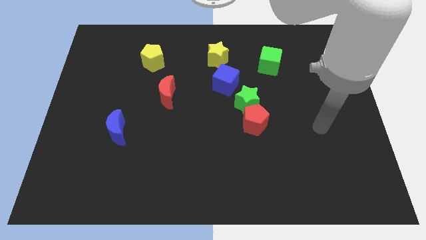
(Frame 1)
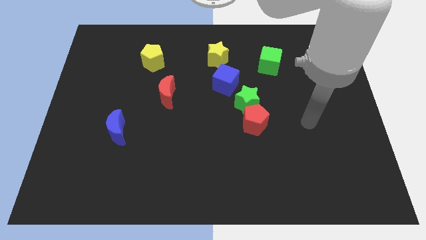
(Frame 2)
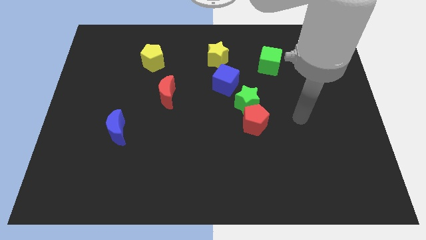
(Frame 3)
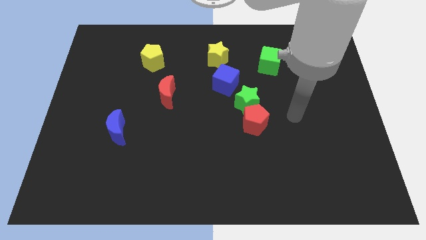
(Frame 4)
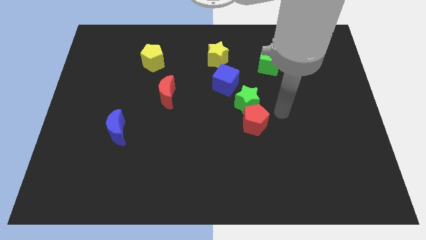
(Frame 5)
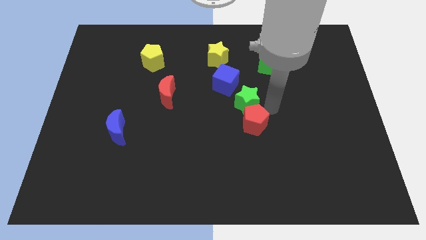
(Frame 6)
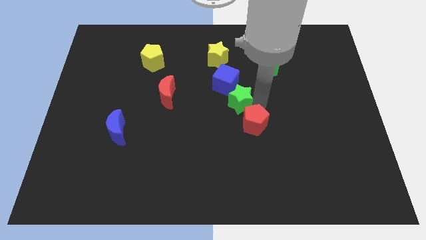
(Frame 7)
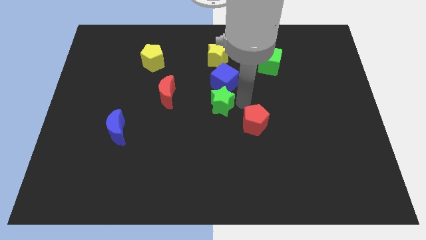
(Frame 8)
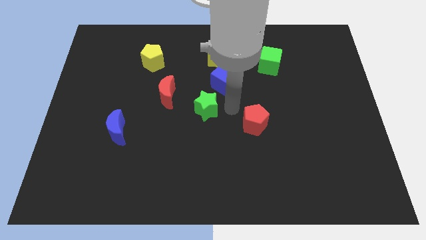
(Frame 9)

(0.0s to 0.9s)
pull the red pentagon apart from the green star

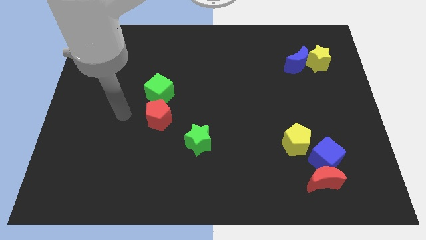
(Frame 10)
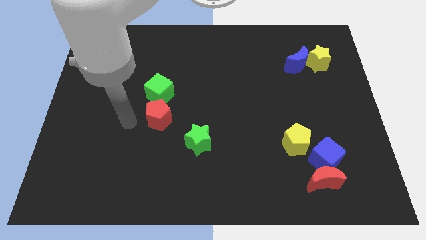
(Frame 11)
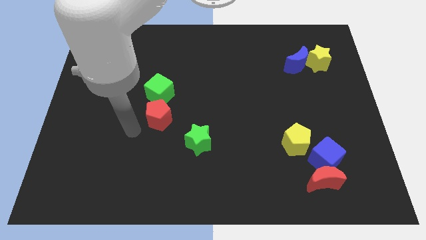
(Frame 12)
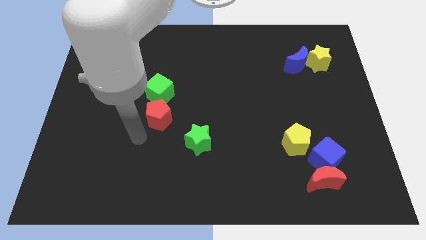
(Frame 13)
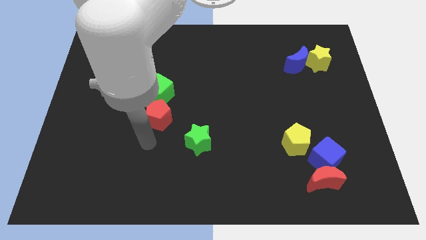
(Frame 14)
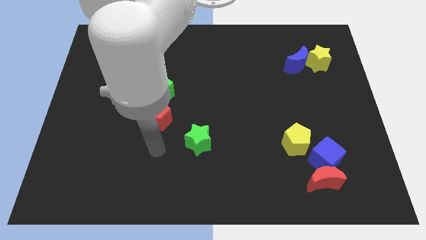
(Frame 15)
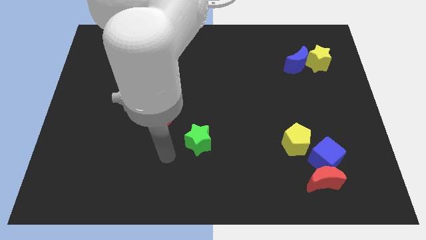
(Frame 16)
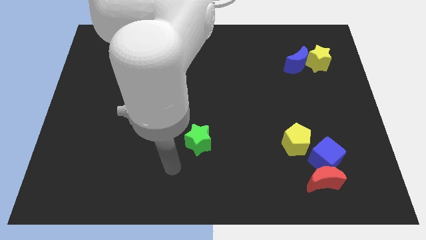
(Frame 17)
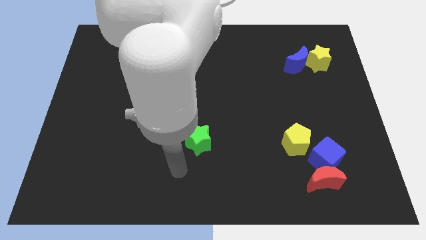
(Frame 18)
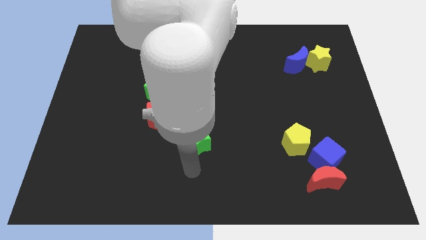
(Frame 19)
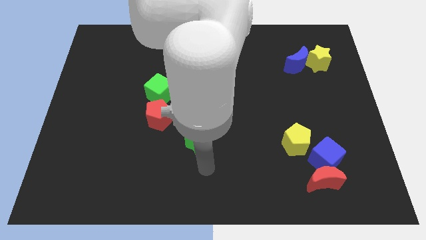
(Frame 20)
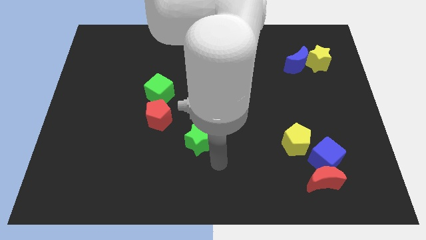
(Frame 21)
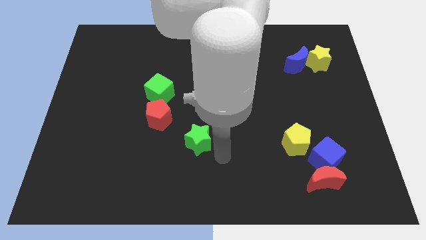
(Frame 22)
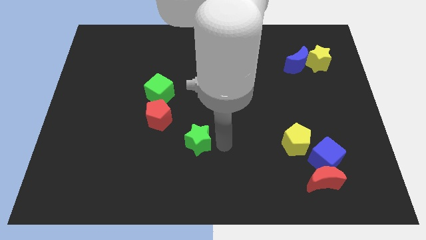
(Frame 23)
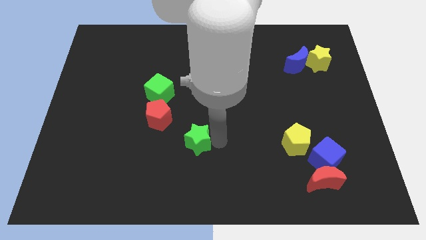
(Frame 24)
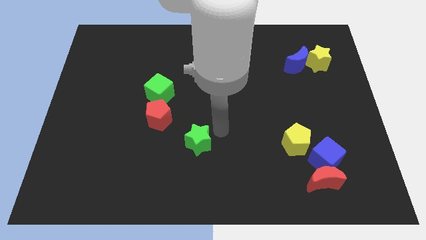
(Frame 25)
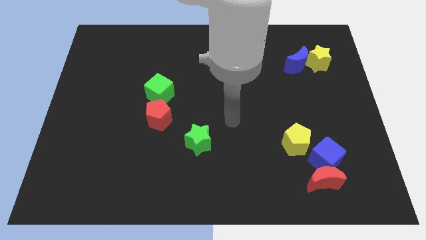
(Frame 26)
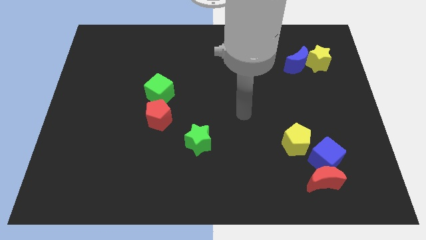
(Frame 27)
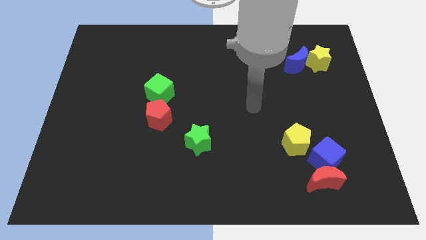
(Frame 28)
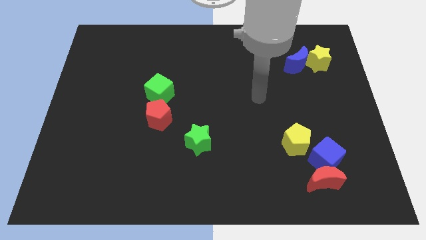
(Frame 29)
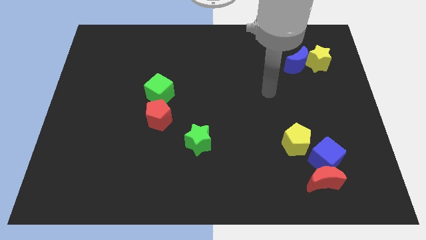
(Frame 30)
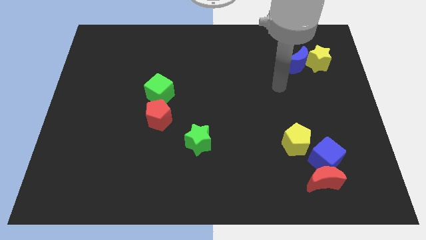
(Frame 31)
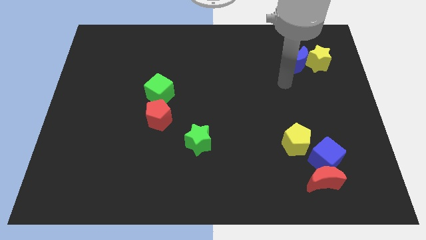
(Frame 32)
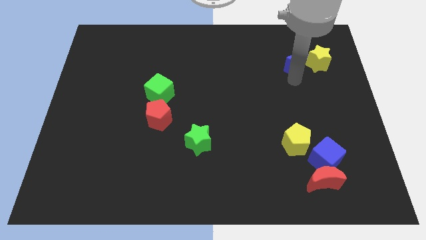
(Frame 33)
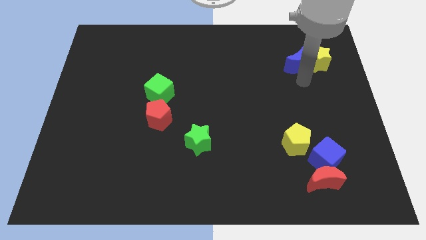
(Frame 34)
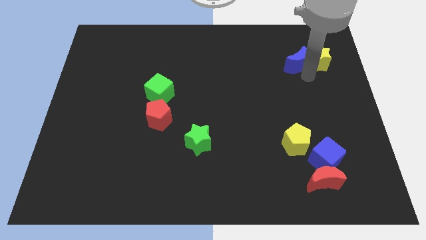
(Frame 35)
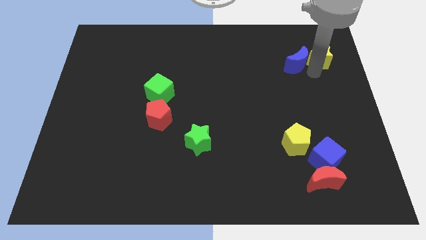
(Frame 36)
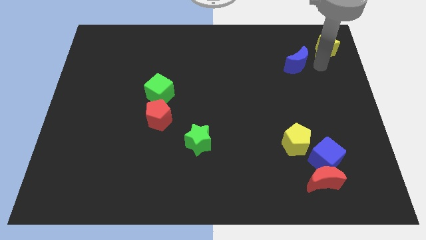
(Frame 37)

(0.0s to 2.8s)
separate the blue moon from the yellow star

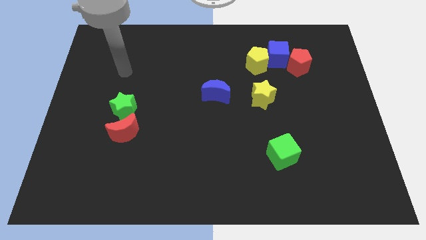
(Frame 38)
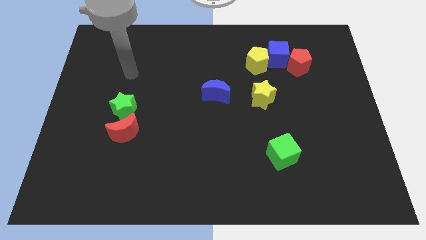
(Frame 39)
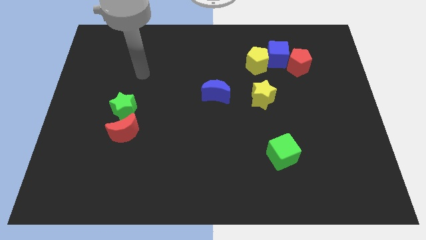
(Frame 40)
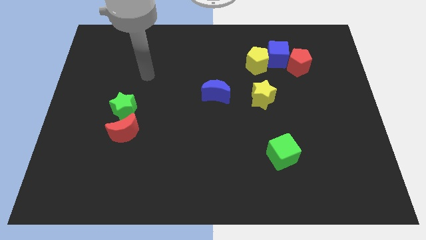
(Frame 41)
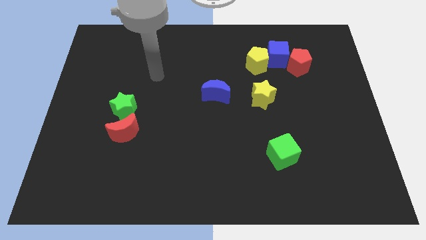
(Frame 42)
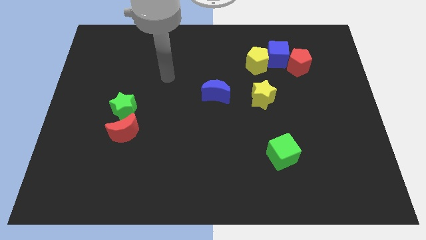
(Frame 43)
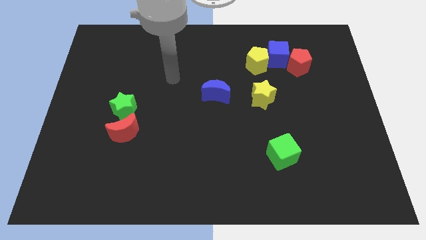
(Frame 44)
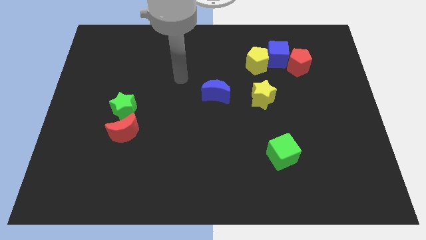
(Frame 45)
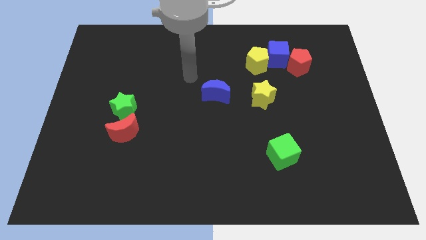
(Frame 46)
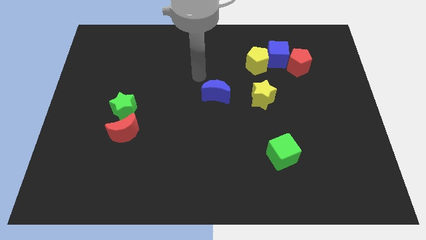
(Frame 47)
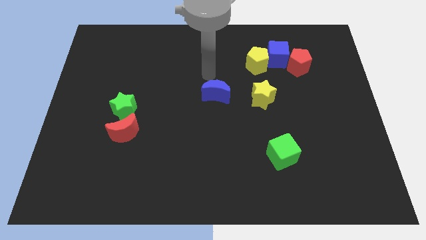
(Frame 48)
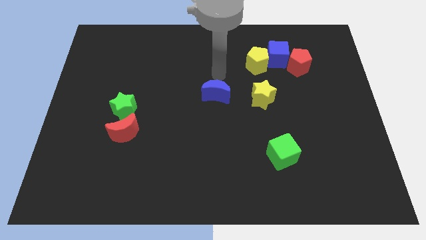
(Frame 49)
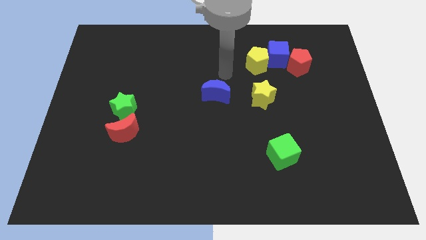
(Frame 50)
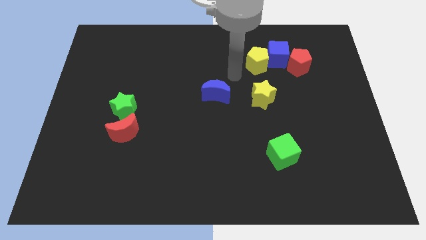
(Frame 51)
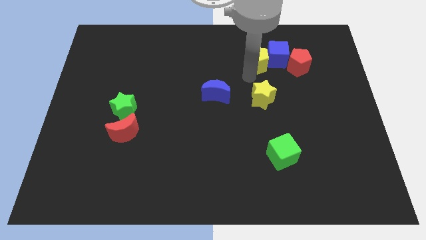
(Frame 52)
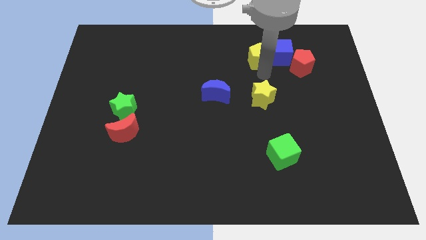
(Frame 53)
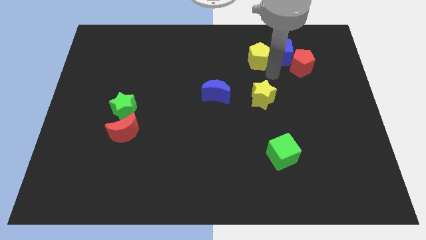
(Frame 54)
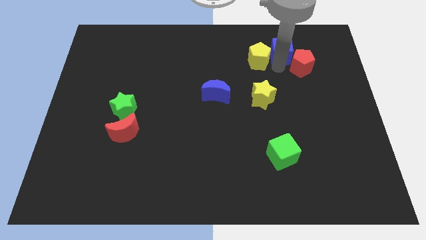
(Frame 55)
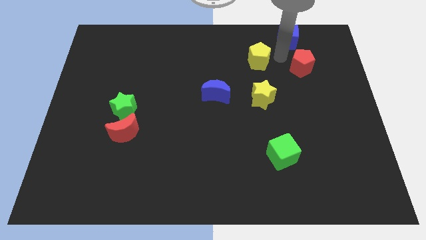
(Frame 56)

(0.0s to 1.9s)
pull the yellow pentagon apart from the blue cube

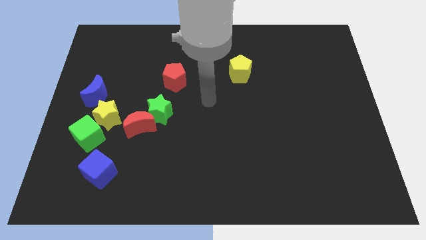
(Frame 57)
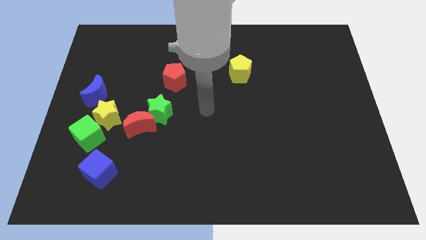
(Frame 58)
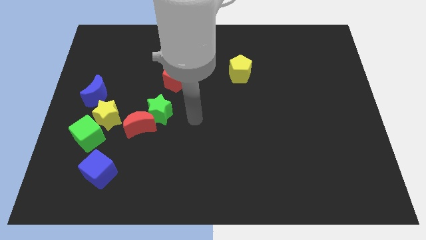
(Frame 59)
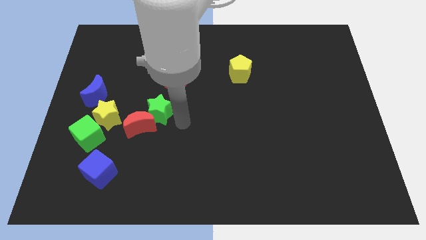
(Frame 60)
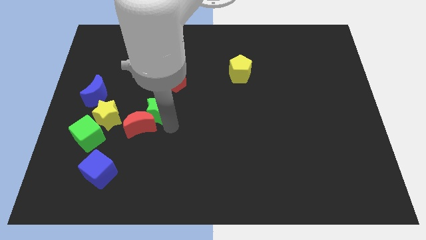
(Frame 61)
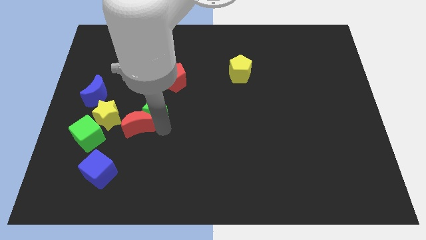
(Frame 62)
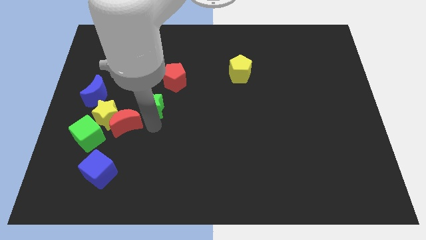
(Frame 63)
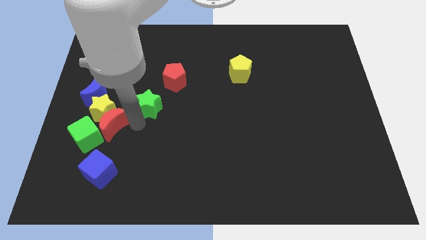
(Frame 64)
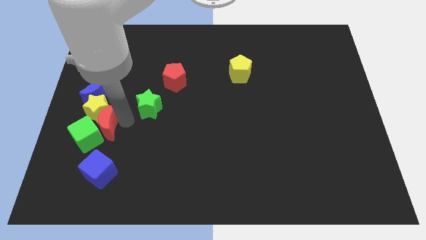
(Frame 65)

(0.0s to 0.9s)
separate the green star from the red moon

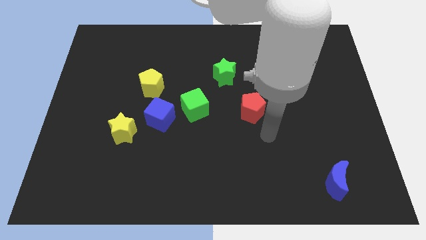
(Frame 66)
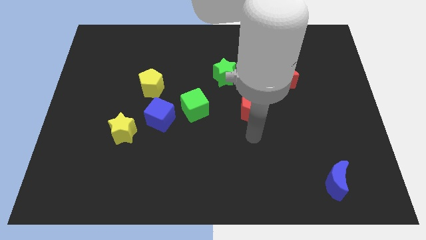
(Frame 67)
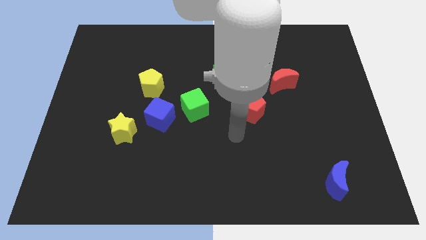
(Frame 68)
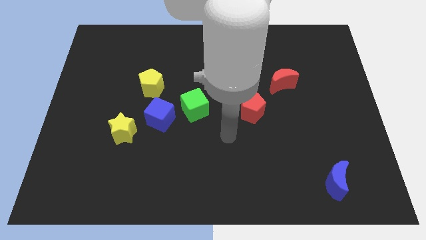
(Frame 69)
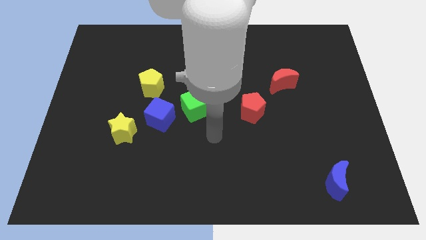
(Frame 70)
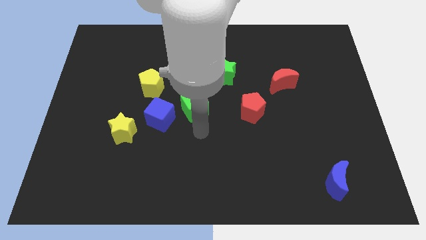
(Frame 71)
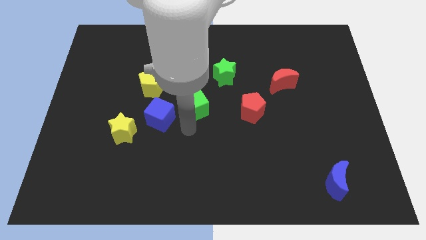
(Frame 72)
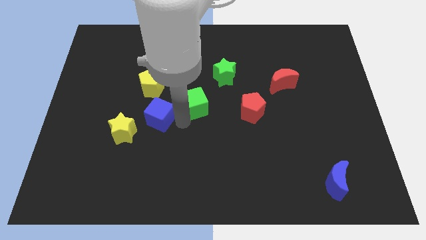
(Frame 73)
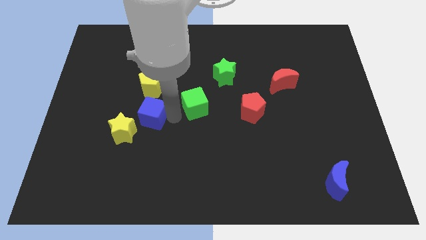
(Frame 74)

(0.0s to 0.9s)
separate the green cube from the blue cube

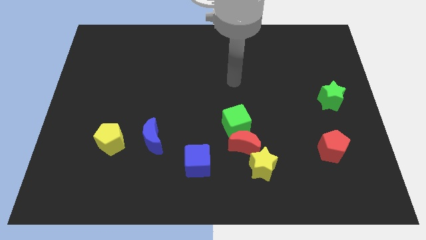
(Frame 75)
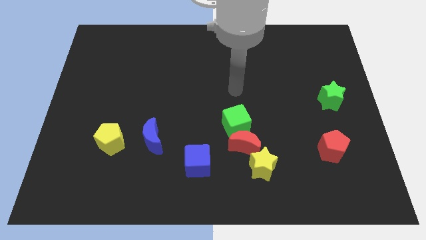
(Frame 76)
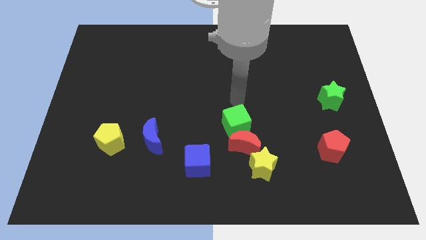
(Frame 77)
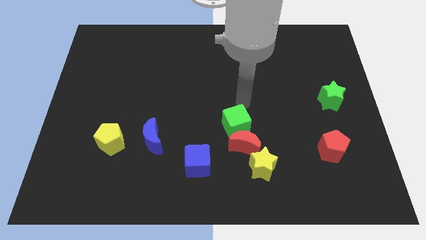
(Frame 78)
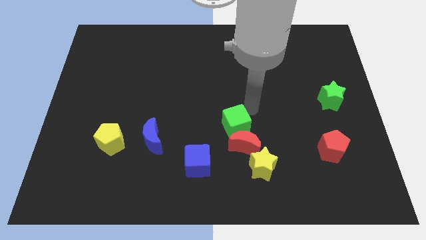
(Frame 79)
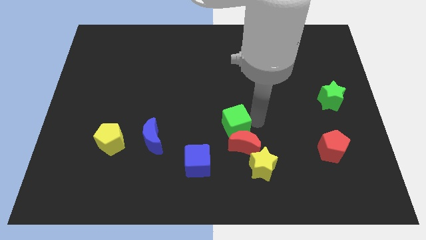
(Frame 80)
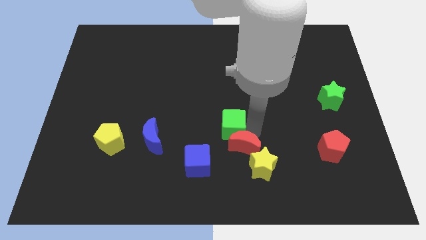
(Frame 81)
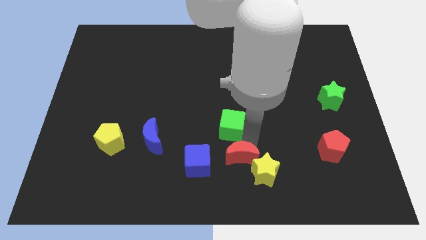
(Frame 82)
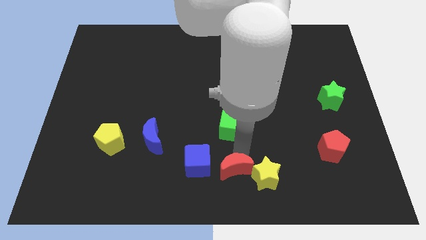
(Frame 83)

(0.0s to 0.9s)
move the green cube away from the red moon

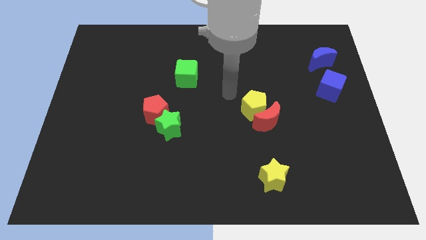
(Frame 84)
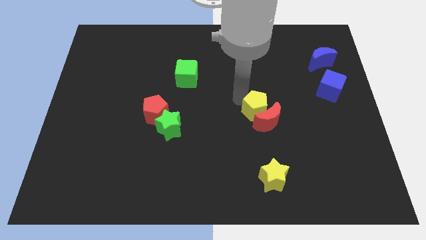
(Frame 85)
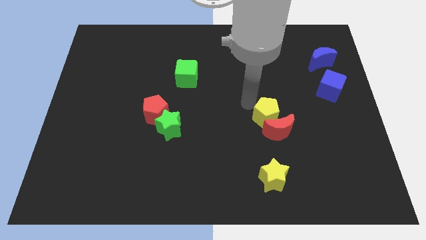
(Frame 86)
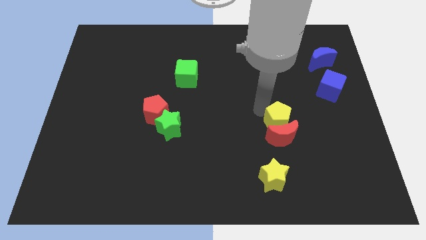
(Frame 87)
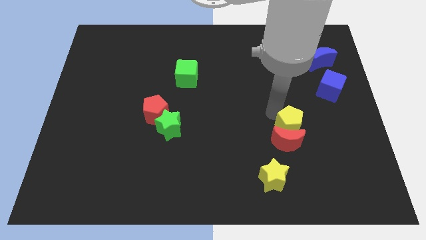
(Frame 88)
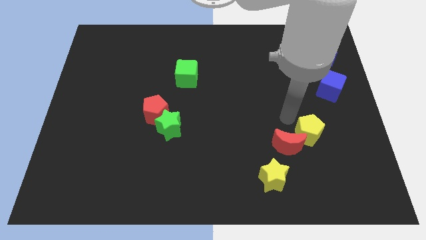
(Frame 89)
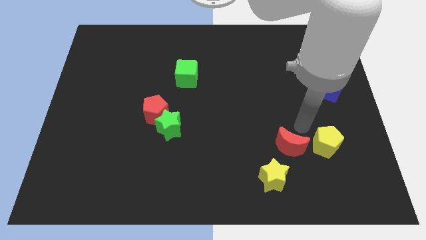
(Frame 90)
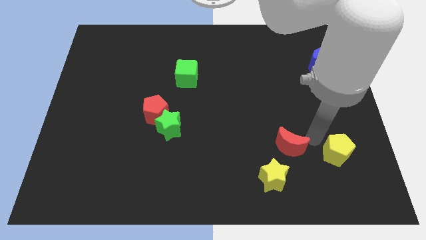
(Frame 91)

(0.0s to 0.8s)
move the red moon away from the yellow pentagon

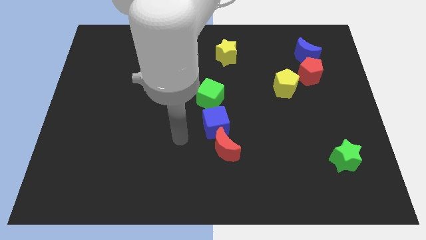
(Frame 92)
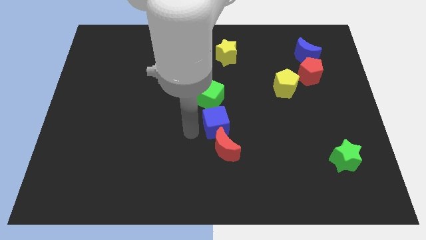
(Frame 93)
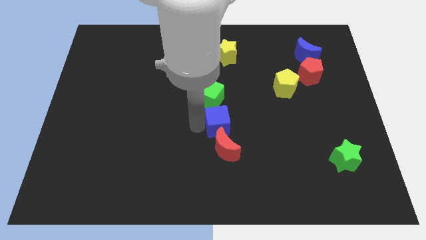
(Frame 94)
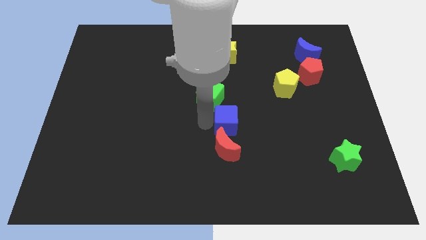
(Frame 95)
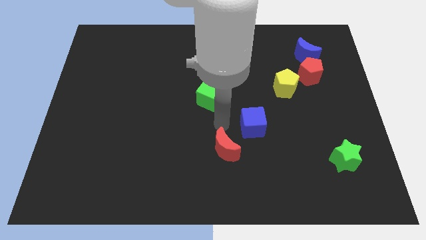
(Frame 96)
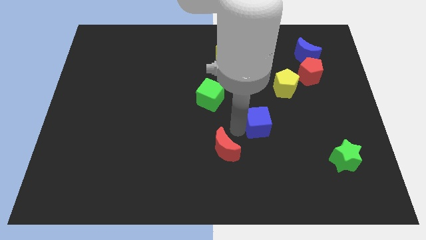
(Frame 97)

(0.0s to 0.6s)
move the red moon away from the blue cube
